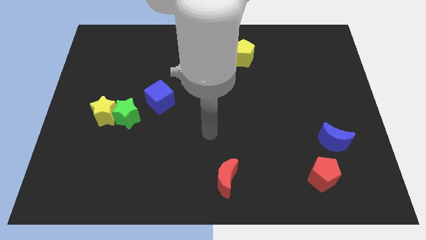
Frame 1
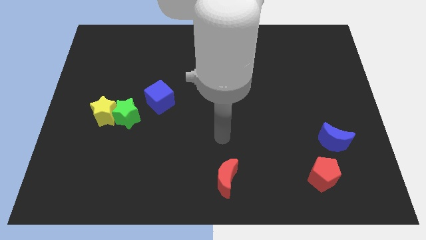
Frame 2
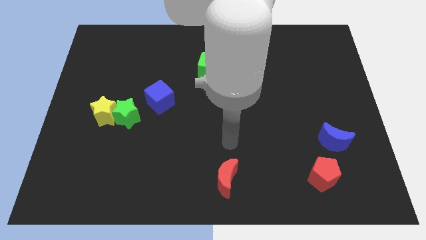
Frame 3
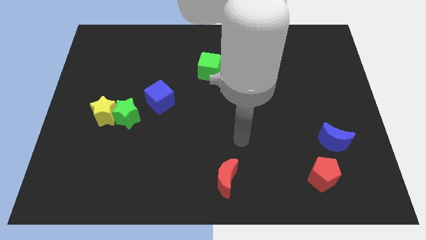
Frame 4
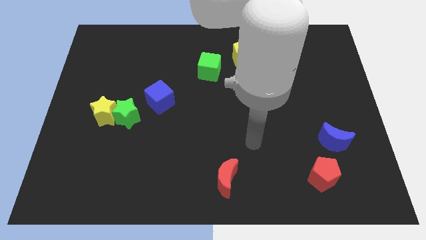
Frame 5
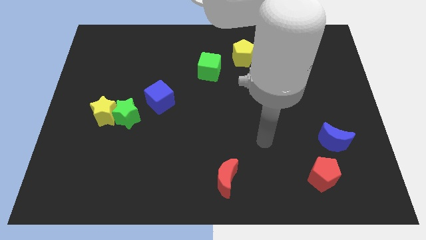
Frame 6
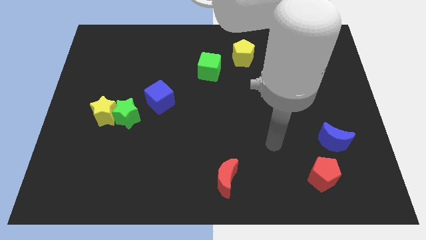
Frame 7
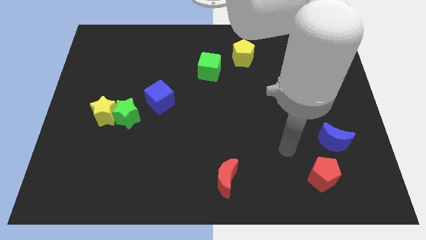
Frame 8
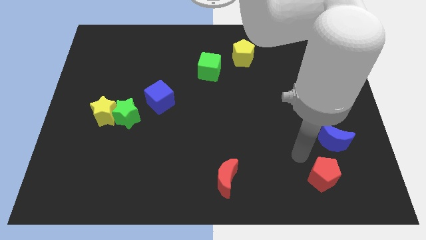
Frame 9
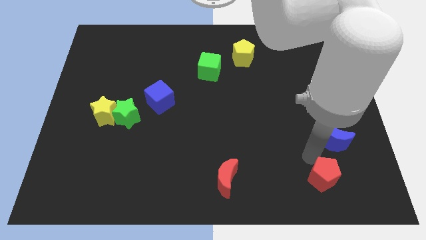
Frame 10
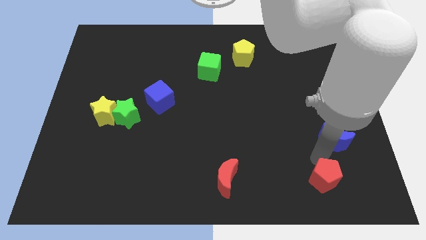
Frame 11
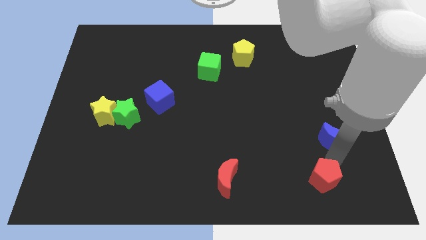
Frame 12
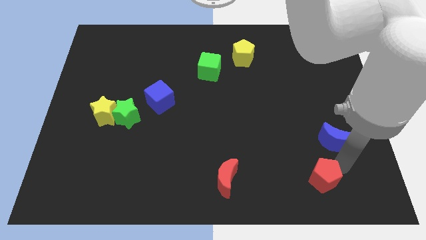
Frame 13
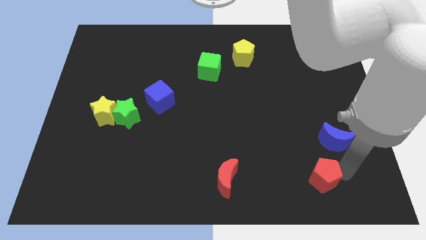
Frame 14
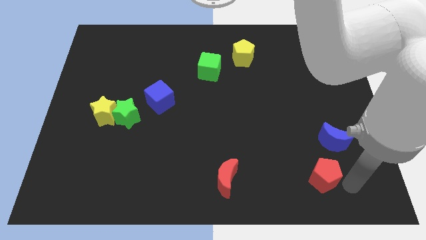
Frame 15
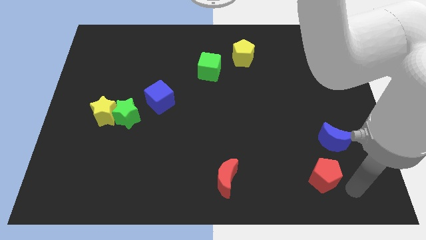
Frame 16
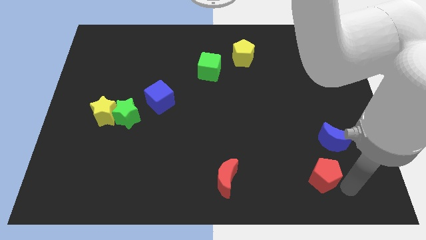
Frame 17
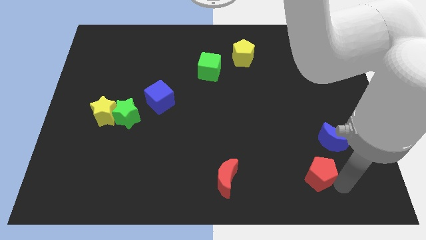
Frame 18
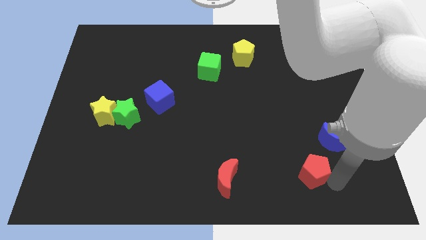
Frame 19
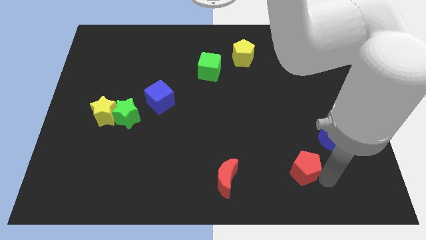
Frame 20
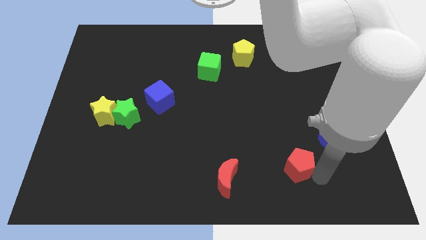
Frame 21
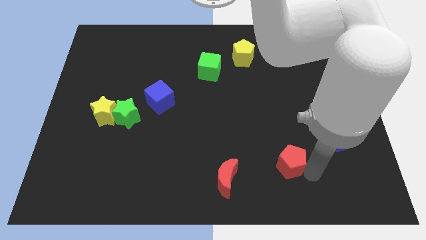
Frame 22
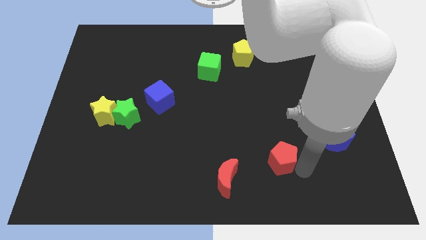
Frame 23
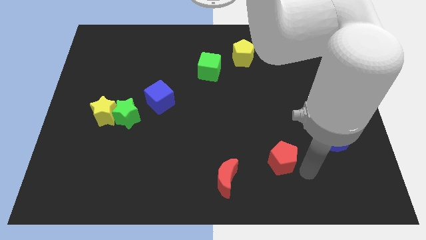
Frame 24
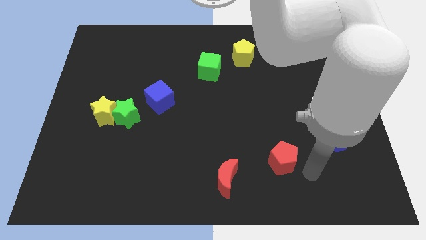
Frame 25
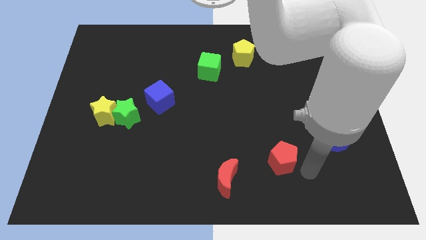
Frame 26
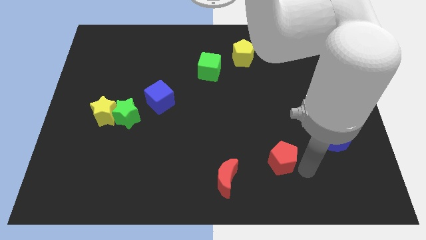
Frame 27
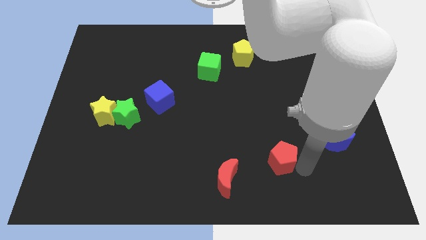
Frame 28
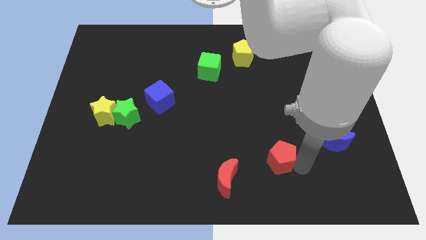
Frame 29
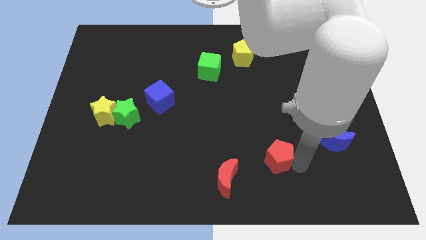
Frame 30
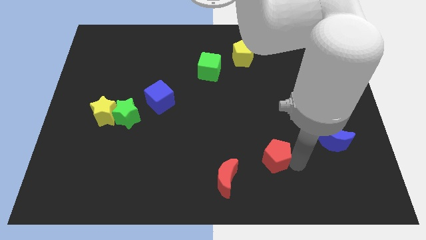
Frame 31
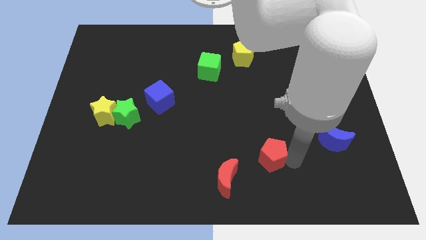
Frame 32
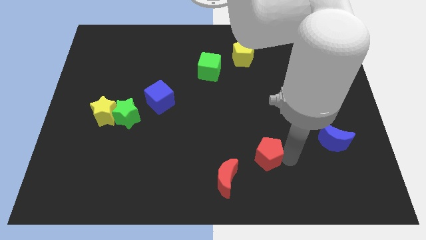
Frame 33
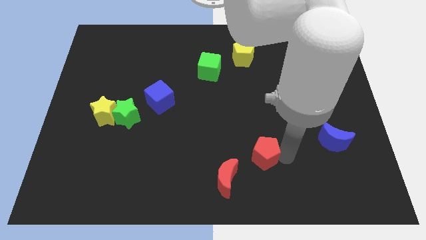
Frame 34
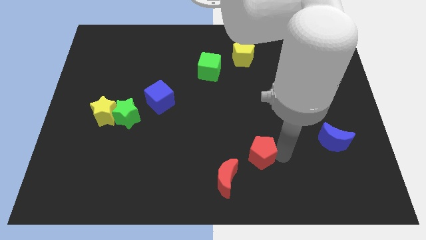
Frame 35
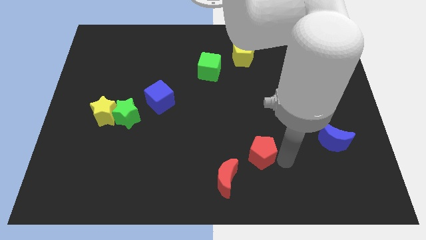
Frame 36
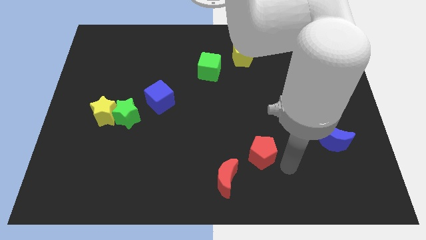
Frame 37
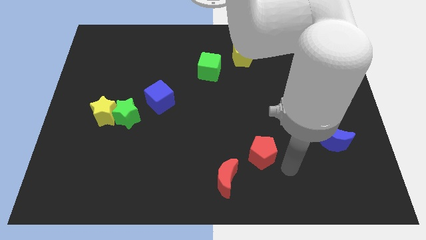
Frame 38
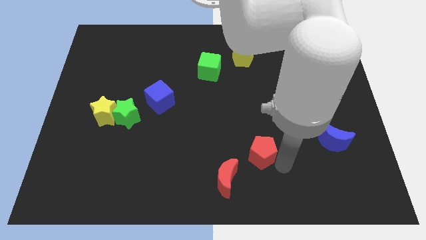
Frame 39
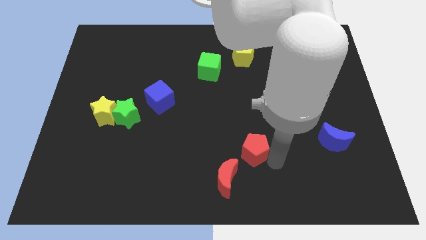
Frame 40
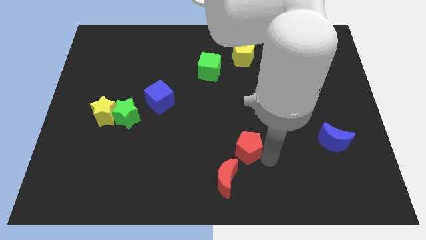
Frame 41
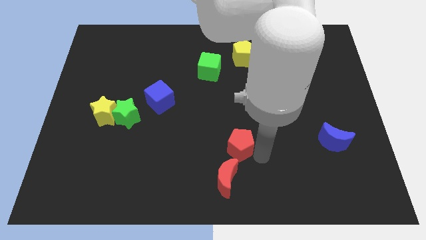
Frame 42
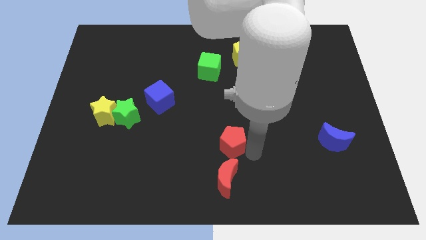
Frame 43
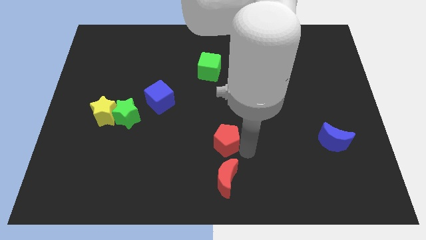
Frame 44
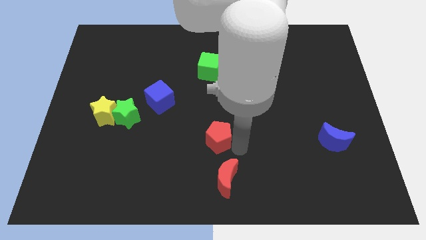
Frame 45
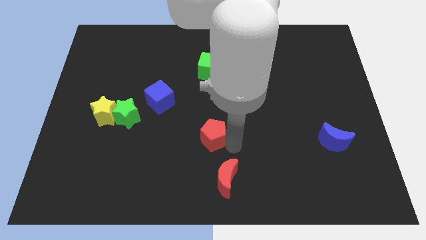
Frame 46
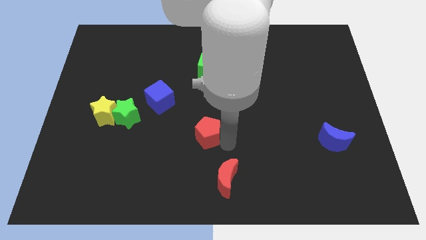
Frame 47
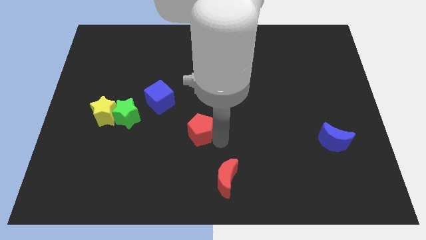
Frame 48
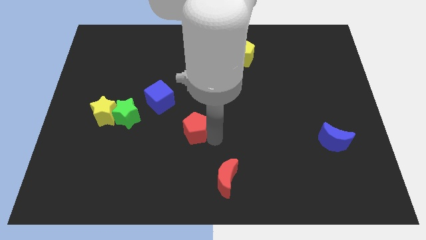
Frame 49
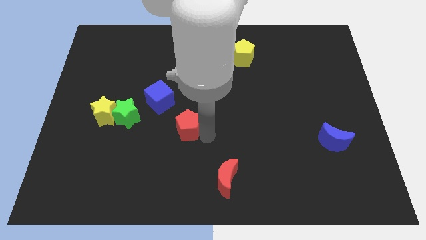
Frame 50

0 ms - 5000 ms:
put the red pentagon to the right side of the green star

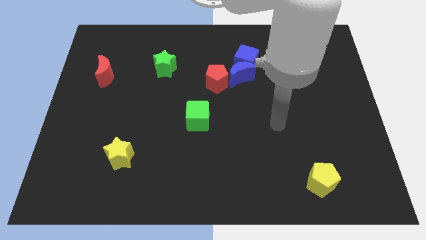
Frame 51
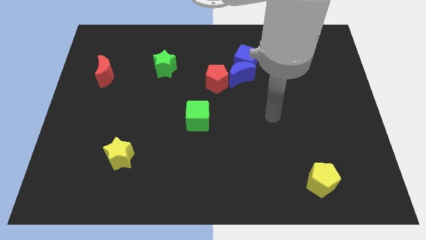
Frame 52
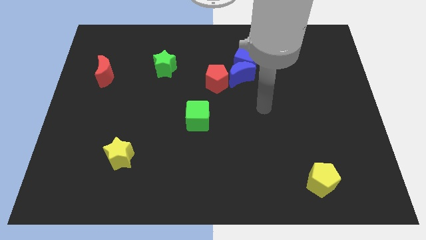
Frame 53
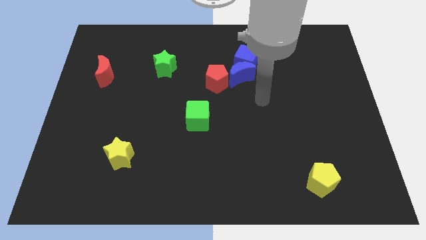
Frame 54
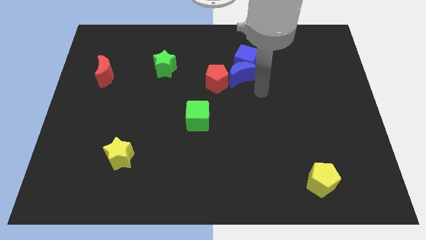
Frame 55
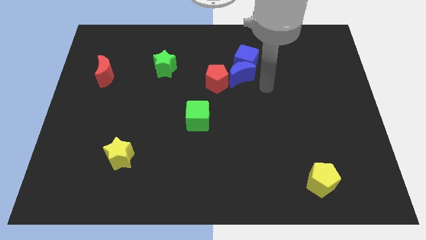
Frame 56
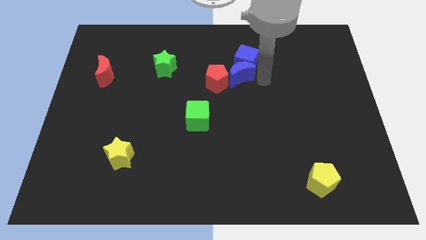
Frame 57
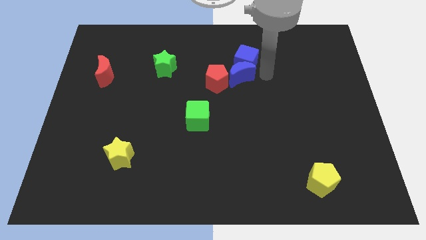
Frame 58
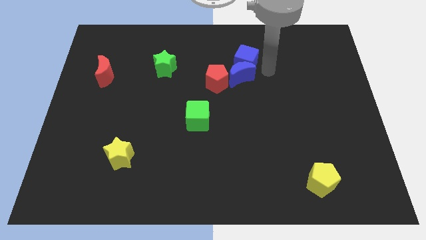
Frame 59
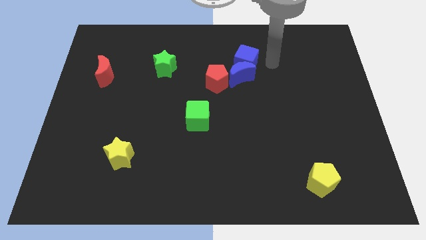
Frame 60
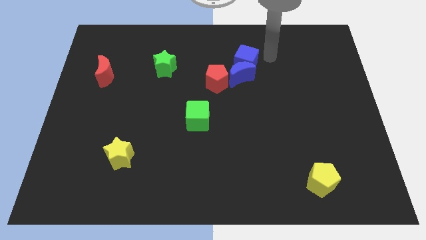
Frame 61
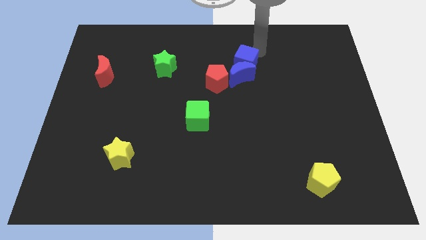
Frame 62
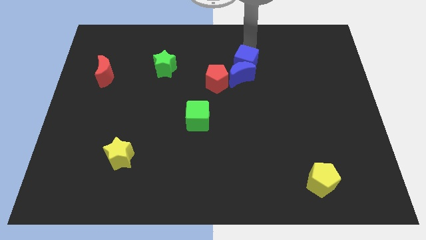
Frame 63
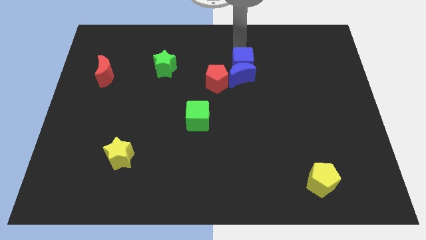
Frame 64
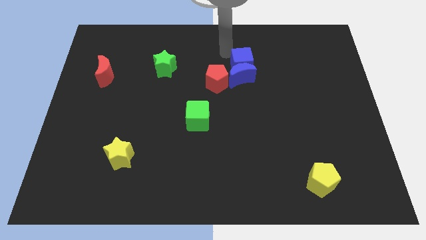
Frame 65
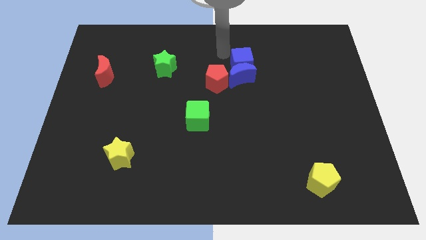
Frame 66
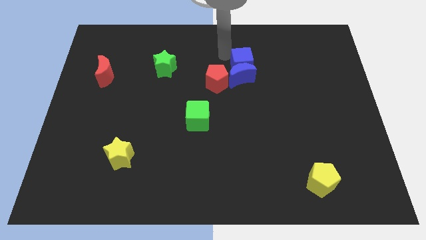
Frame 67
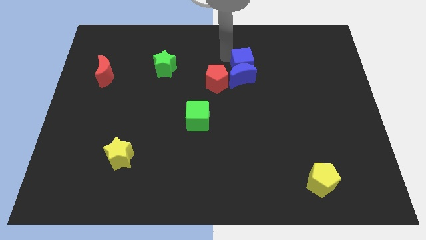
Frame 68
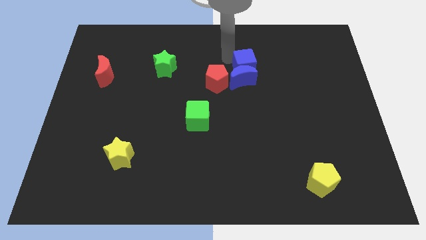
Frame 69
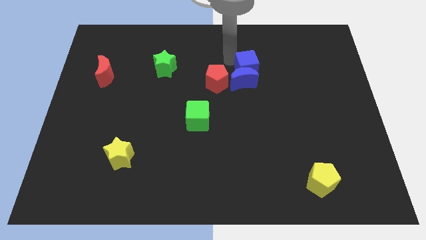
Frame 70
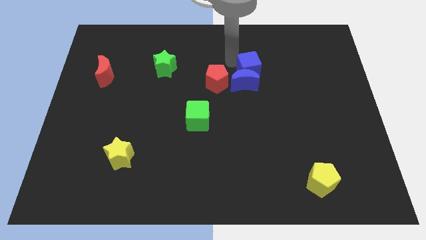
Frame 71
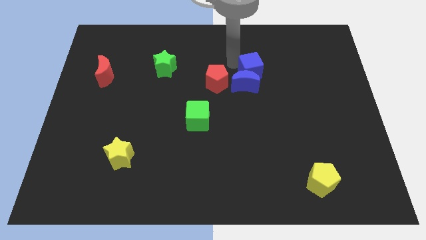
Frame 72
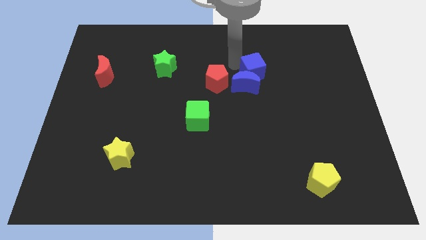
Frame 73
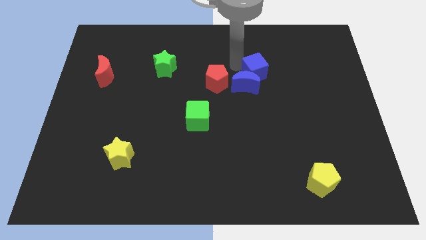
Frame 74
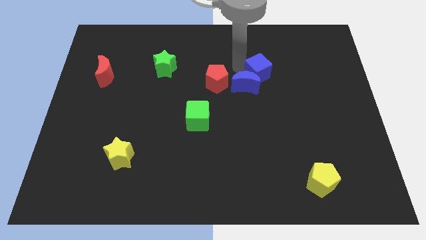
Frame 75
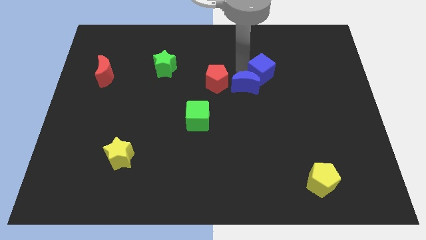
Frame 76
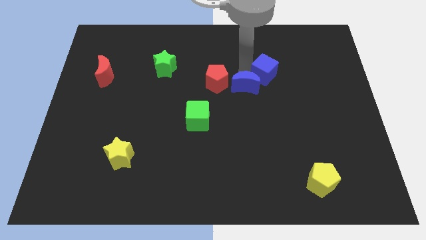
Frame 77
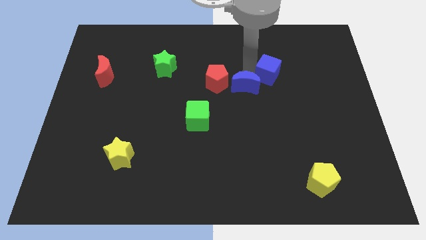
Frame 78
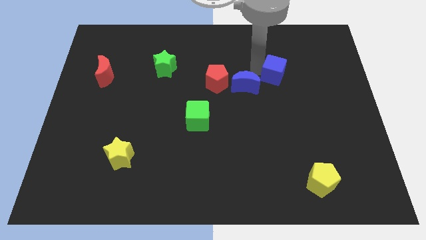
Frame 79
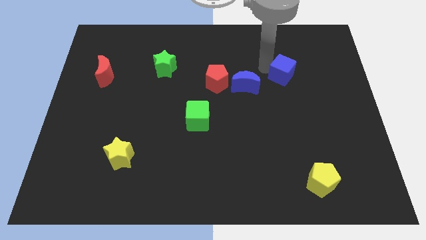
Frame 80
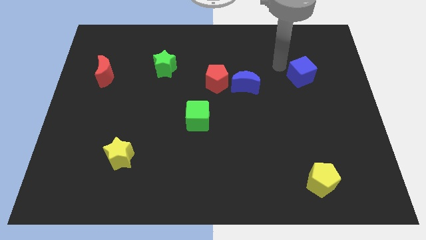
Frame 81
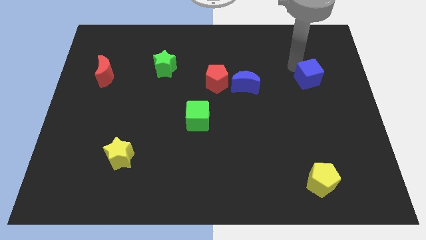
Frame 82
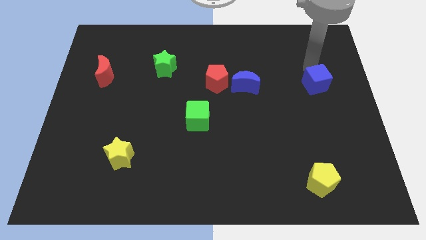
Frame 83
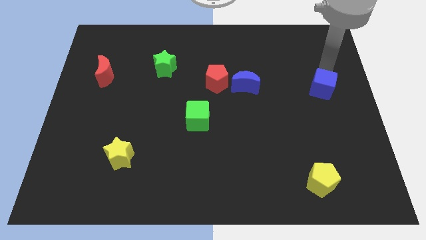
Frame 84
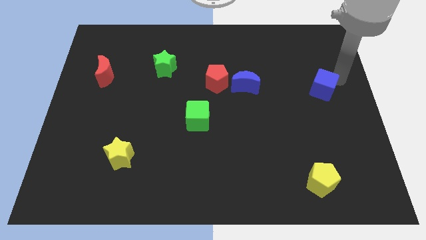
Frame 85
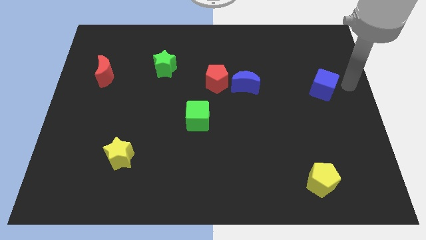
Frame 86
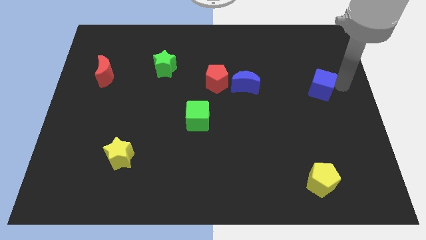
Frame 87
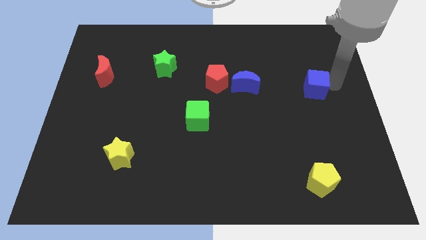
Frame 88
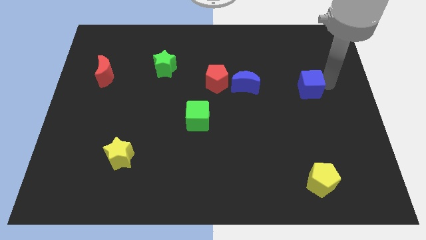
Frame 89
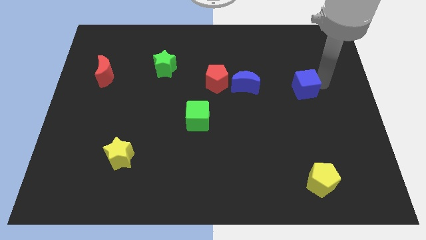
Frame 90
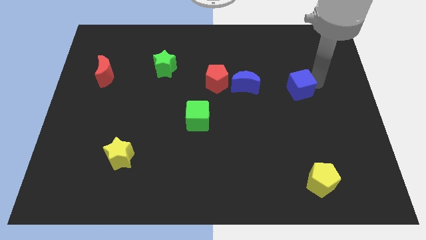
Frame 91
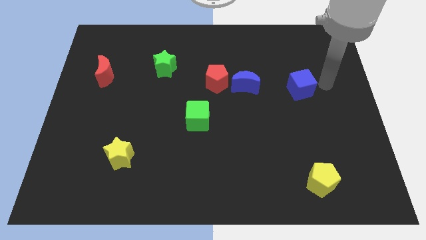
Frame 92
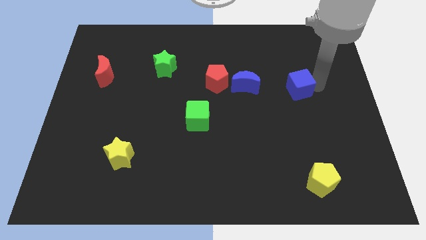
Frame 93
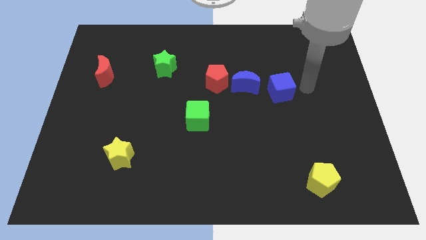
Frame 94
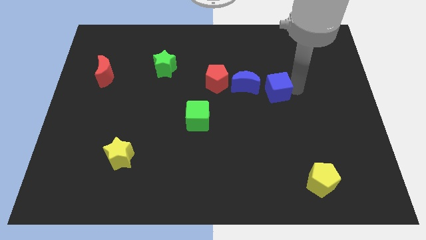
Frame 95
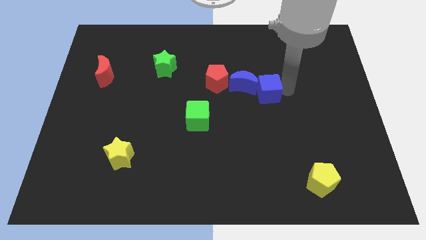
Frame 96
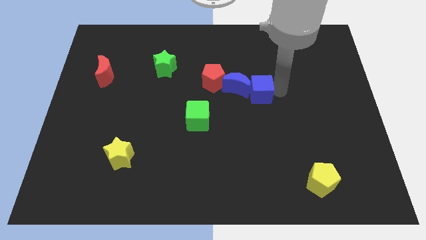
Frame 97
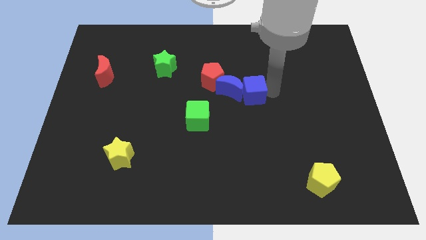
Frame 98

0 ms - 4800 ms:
push the blue cube diagonally down and to the right of the red pentagon
